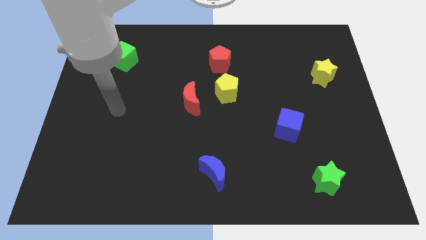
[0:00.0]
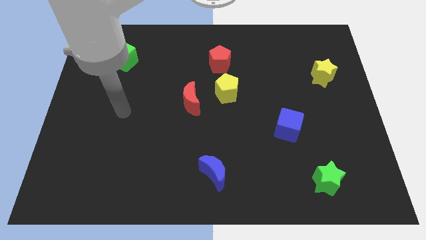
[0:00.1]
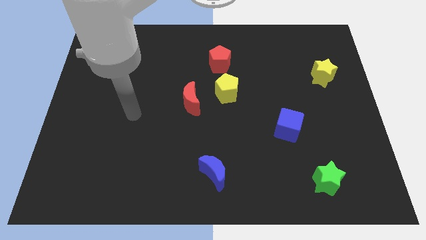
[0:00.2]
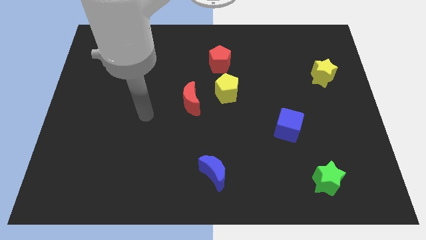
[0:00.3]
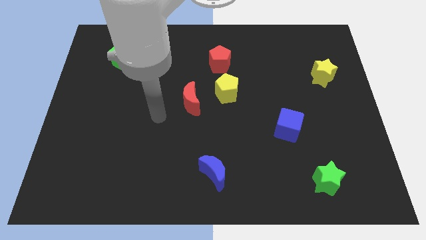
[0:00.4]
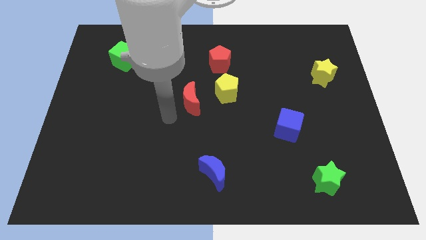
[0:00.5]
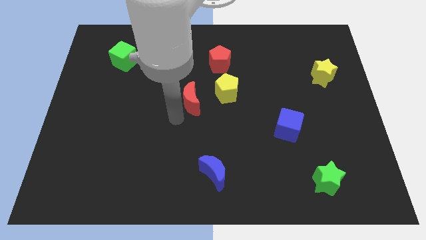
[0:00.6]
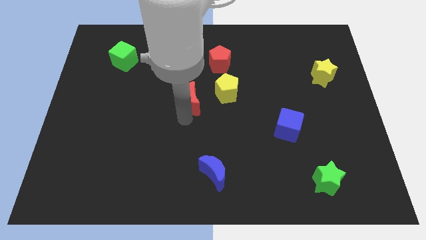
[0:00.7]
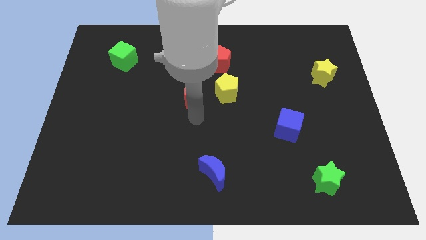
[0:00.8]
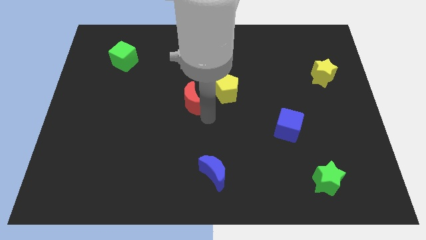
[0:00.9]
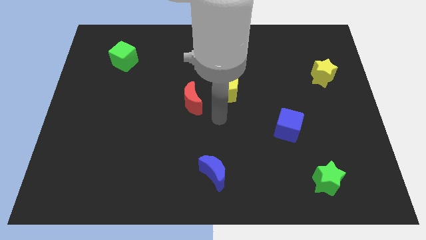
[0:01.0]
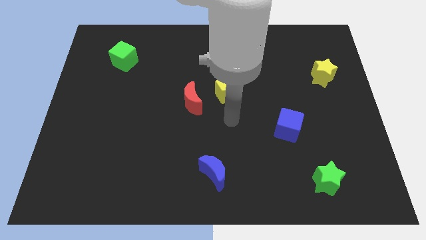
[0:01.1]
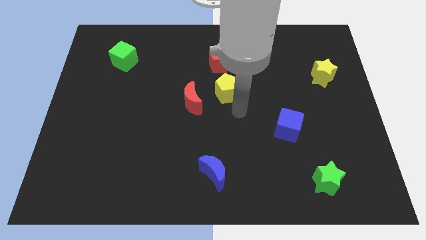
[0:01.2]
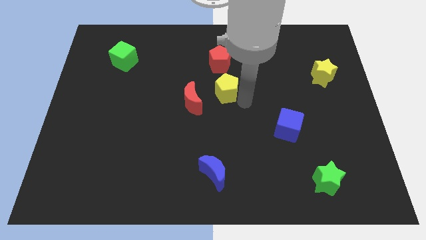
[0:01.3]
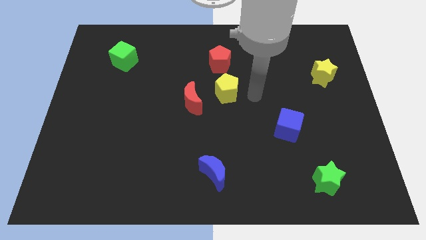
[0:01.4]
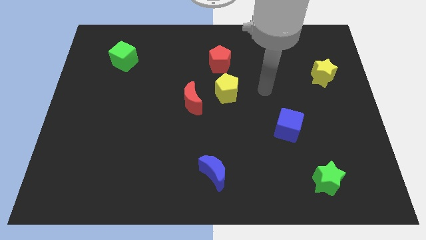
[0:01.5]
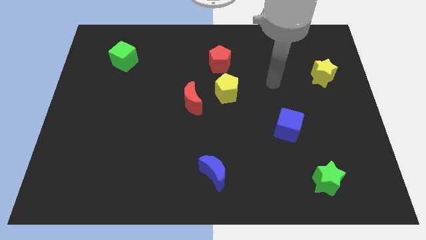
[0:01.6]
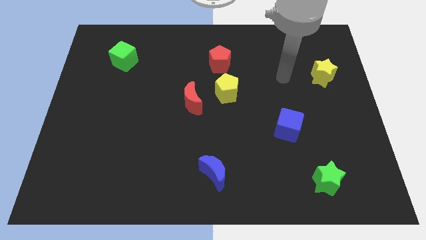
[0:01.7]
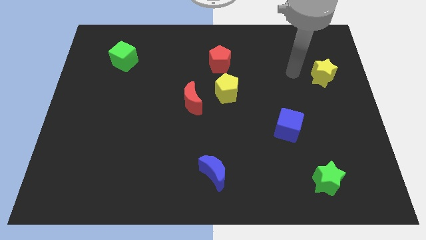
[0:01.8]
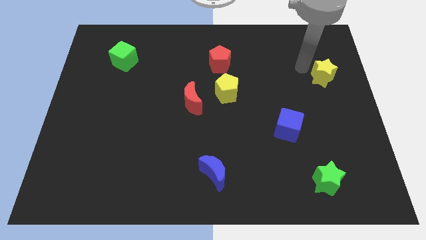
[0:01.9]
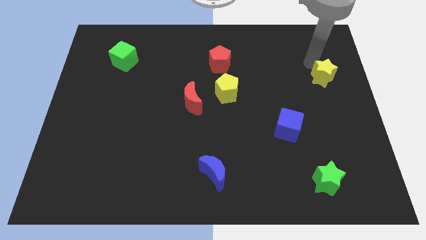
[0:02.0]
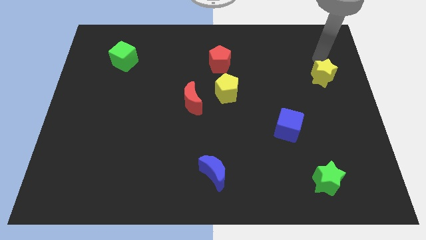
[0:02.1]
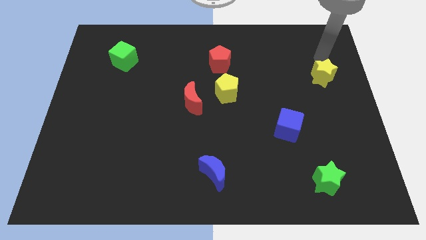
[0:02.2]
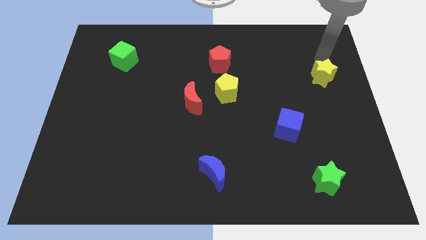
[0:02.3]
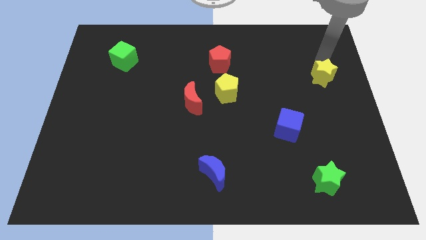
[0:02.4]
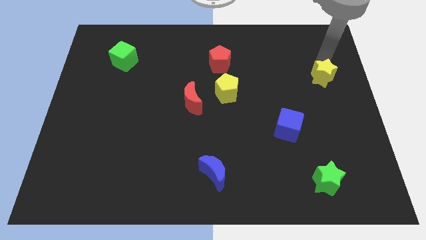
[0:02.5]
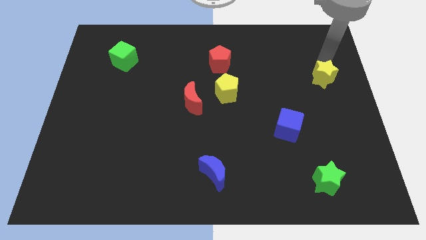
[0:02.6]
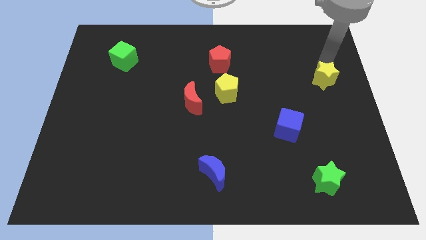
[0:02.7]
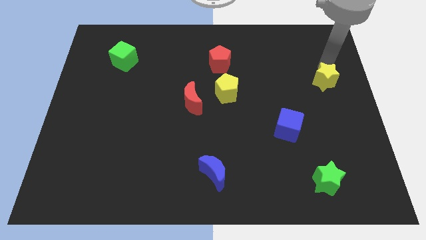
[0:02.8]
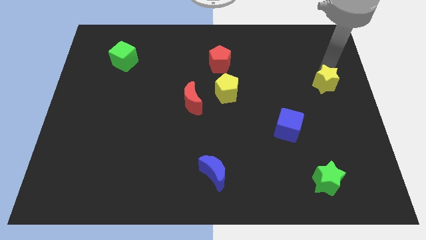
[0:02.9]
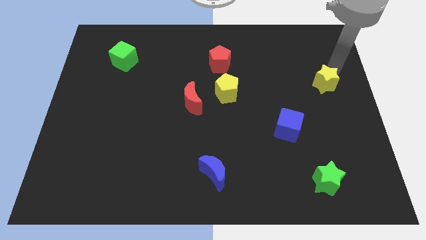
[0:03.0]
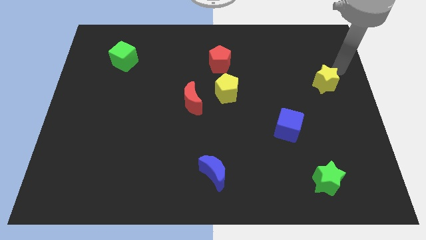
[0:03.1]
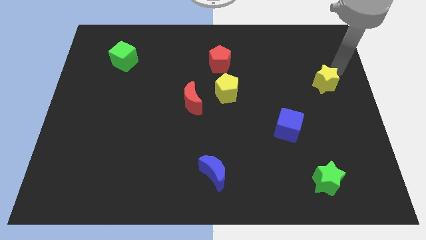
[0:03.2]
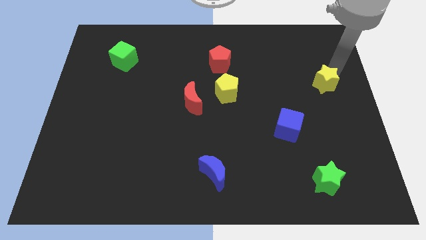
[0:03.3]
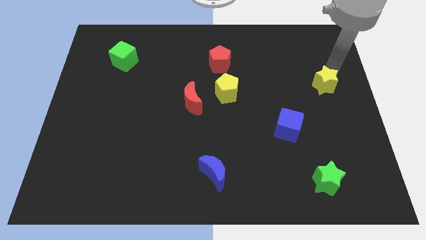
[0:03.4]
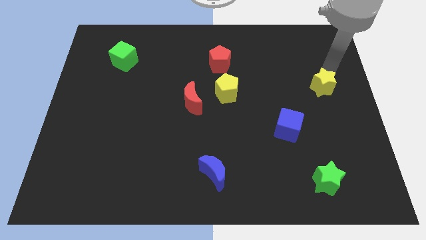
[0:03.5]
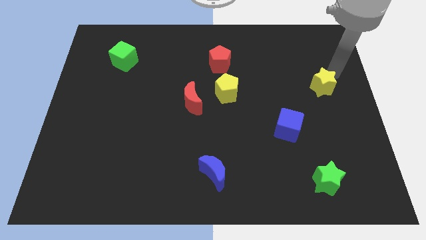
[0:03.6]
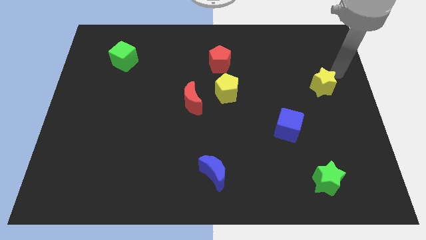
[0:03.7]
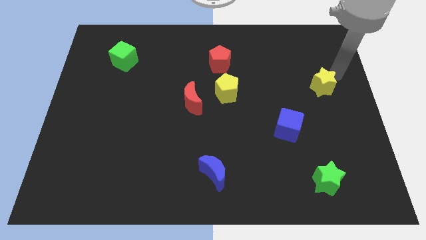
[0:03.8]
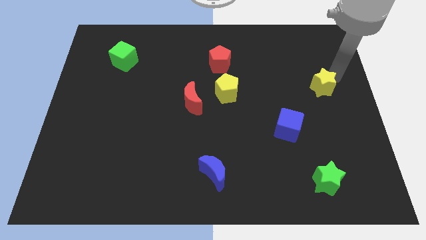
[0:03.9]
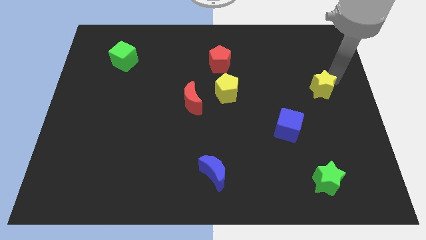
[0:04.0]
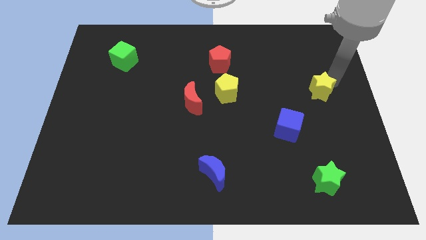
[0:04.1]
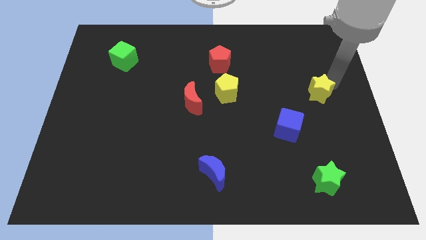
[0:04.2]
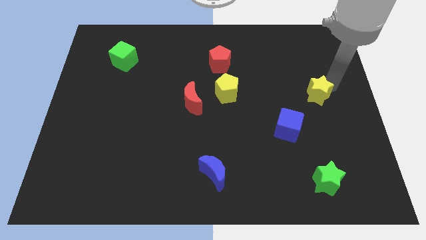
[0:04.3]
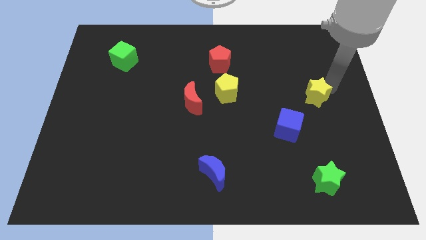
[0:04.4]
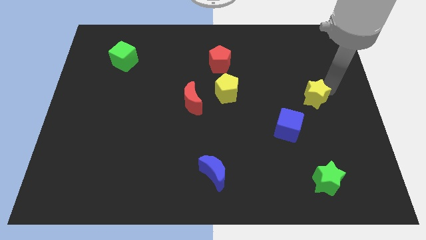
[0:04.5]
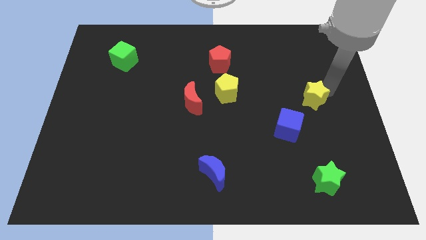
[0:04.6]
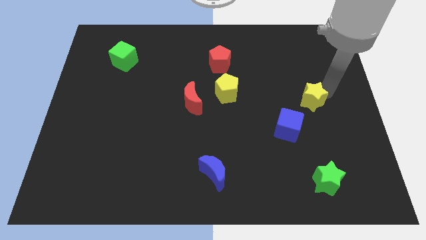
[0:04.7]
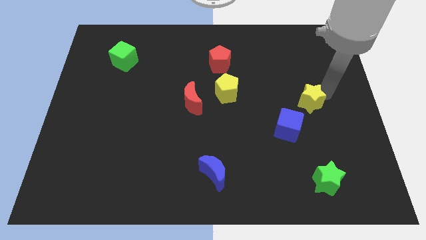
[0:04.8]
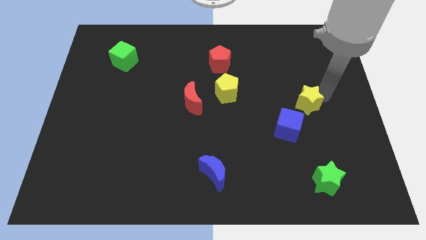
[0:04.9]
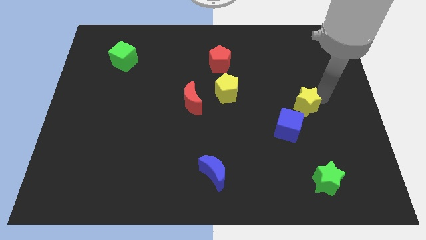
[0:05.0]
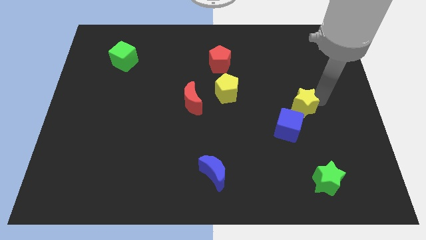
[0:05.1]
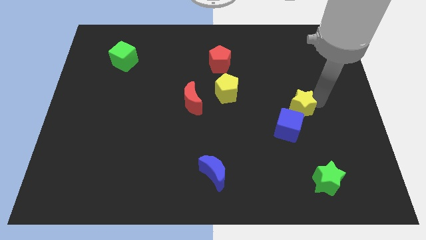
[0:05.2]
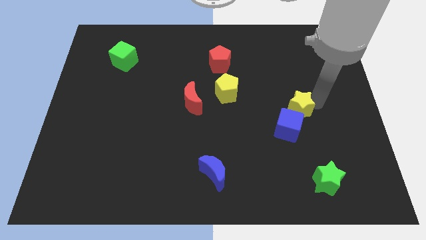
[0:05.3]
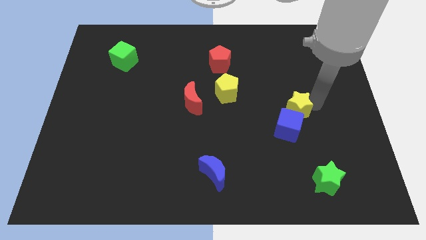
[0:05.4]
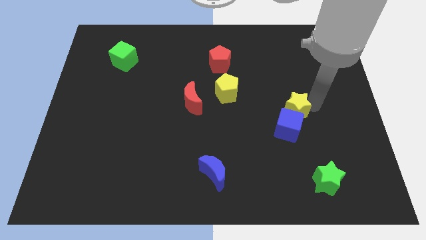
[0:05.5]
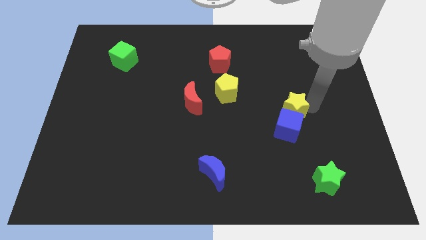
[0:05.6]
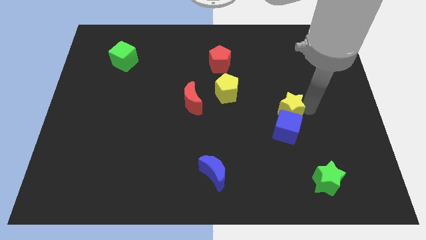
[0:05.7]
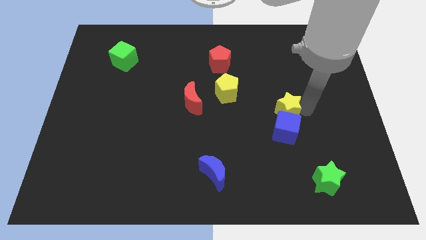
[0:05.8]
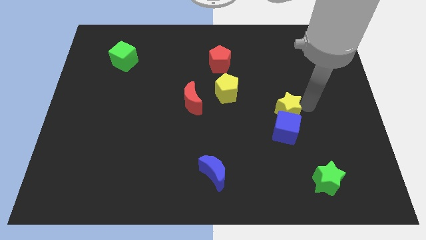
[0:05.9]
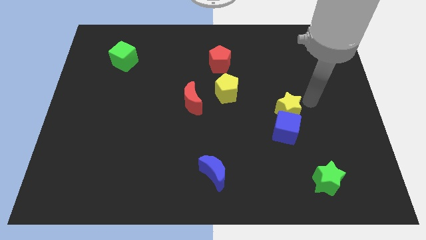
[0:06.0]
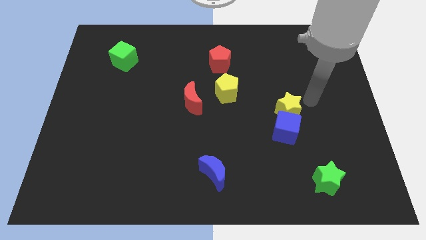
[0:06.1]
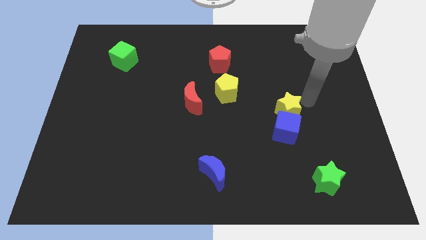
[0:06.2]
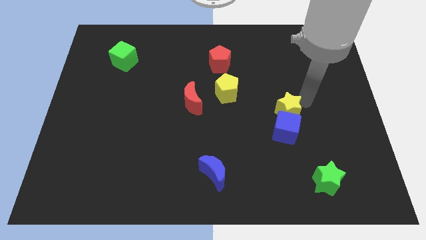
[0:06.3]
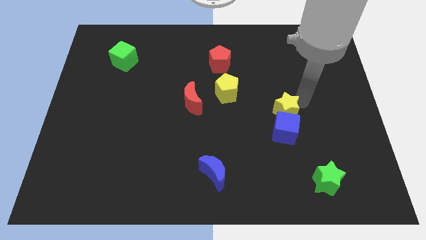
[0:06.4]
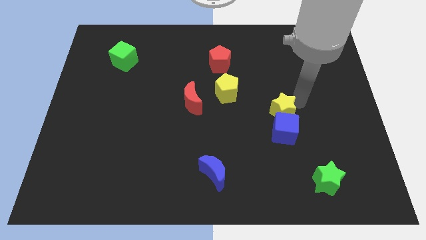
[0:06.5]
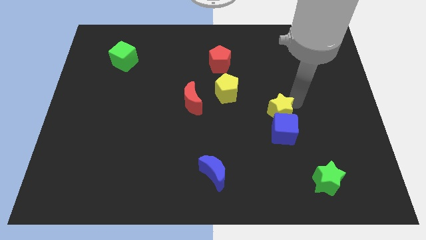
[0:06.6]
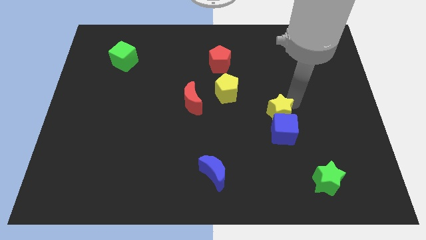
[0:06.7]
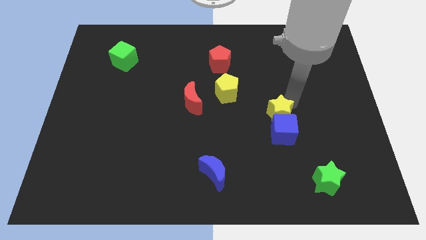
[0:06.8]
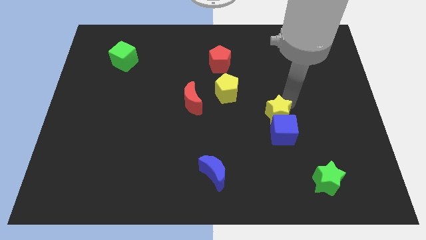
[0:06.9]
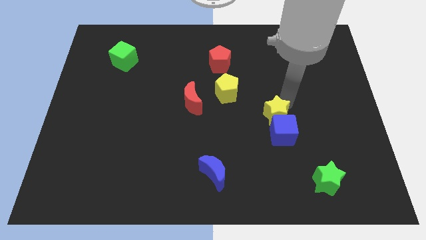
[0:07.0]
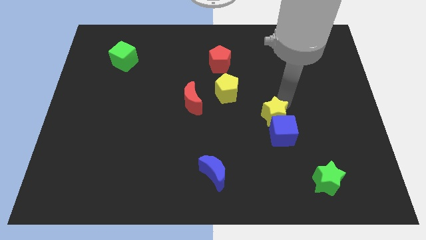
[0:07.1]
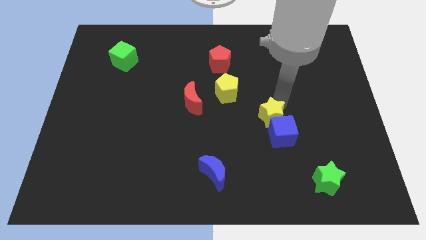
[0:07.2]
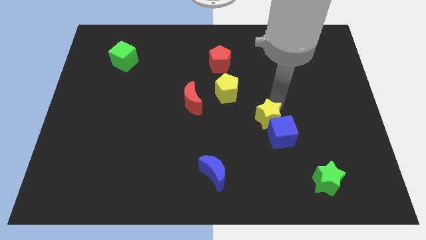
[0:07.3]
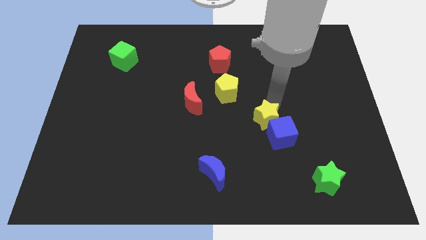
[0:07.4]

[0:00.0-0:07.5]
slide the yellow star downwards and then left

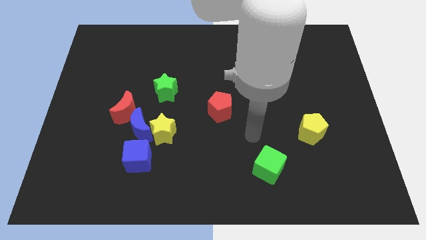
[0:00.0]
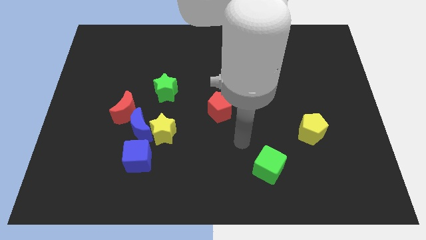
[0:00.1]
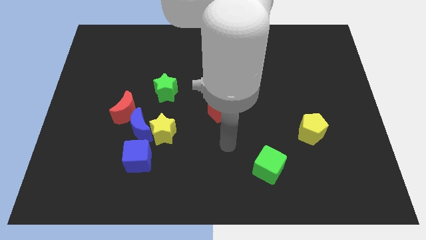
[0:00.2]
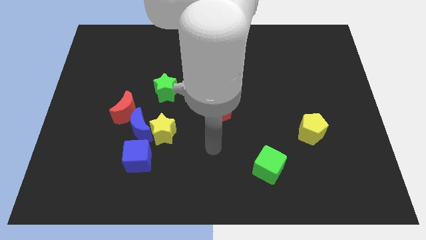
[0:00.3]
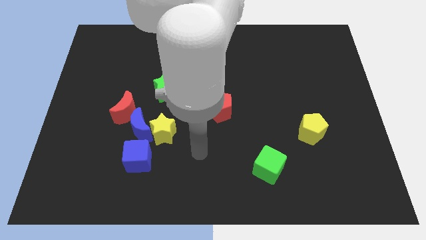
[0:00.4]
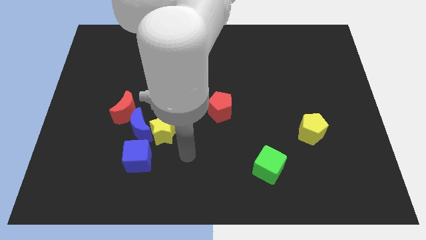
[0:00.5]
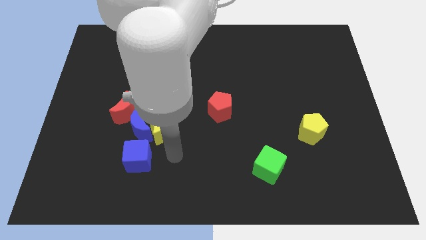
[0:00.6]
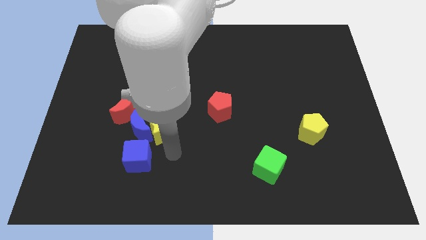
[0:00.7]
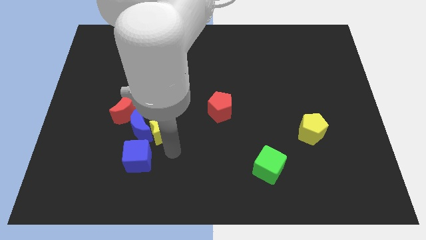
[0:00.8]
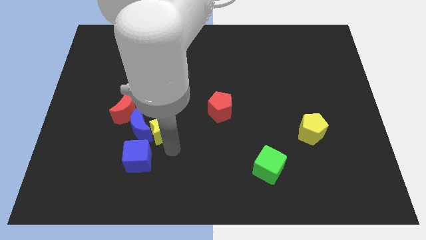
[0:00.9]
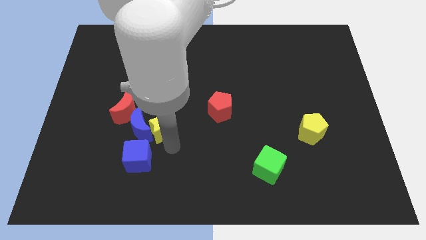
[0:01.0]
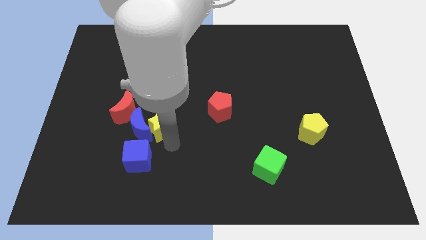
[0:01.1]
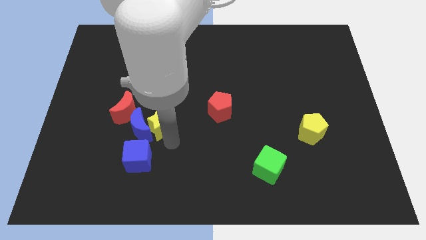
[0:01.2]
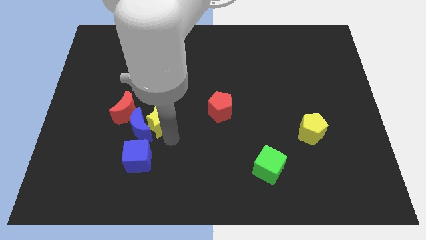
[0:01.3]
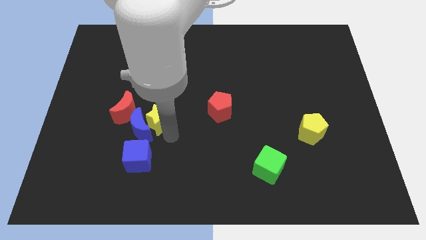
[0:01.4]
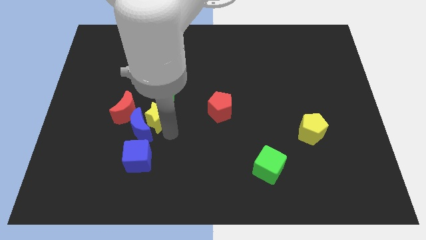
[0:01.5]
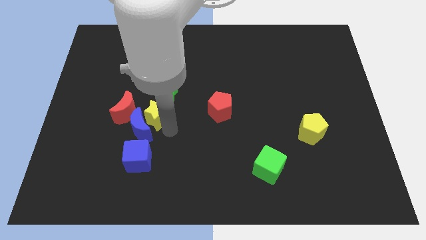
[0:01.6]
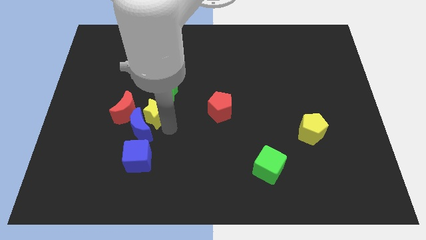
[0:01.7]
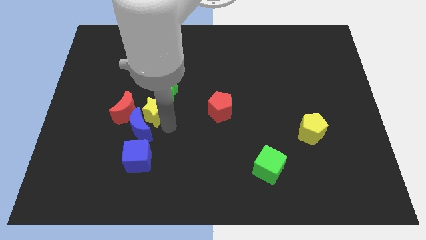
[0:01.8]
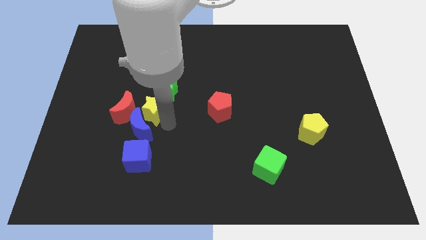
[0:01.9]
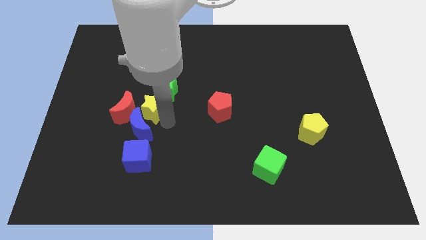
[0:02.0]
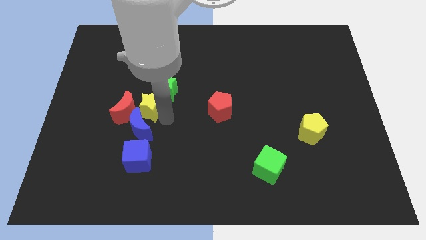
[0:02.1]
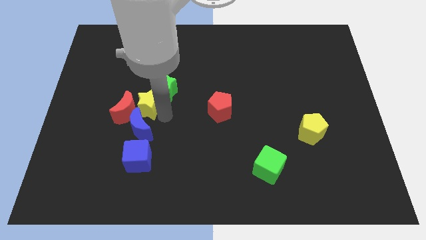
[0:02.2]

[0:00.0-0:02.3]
push the yellow star upwards and then to the left a bit
